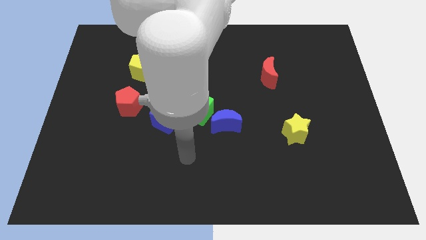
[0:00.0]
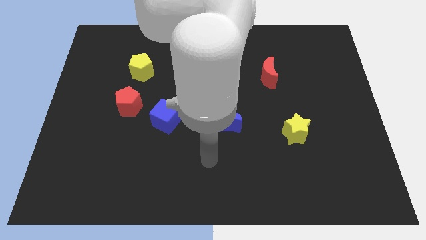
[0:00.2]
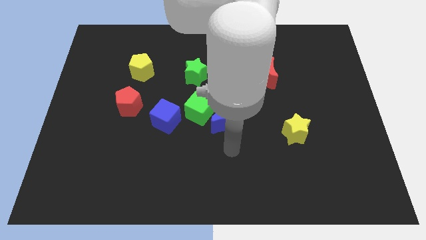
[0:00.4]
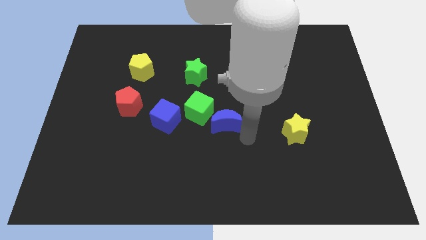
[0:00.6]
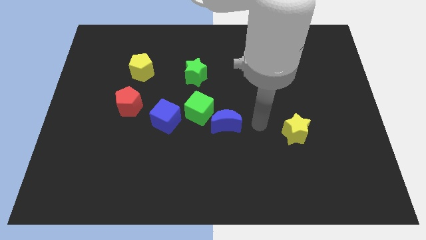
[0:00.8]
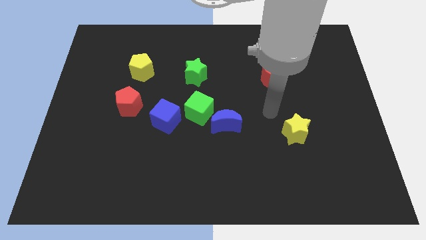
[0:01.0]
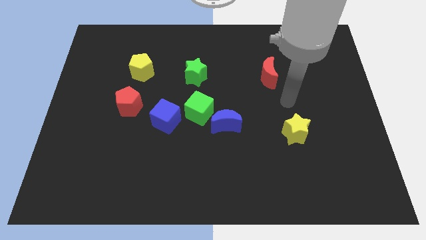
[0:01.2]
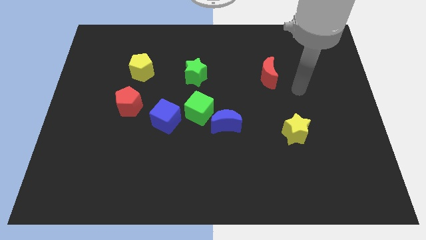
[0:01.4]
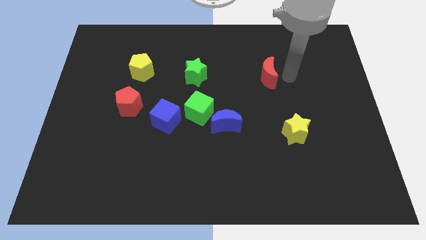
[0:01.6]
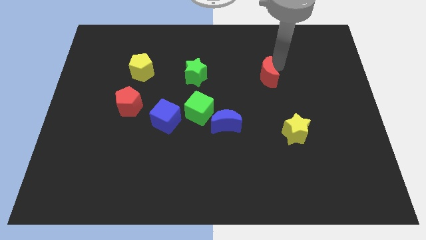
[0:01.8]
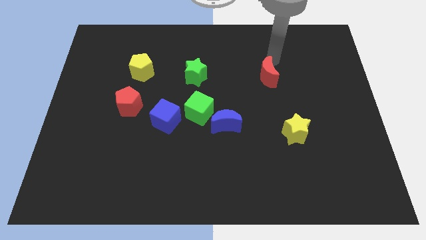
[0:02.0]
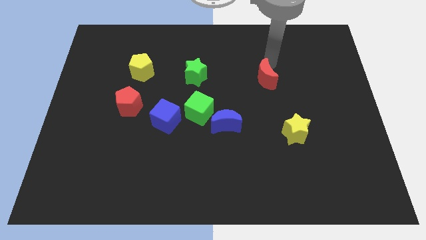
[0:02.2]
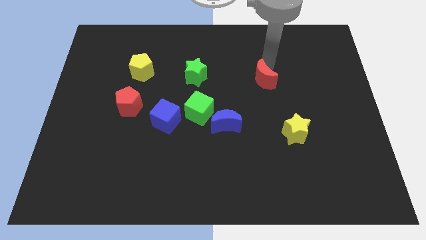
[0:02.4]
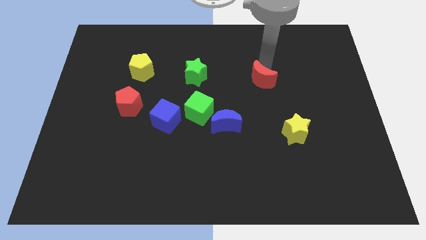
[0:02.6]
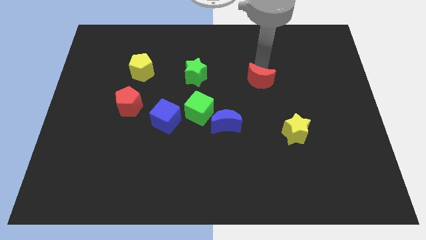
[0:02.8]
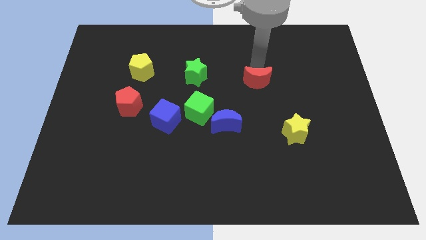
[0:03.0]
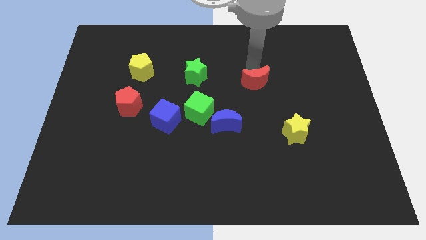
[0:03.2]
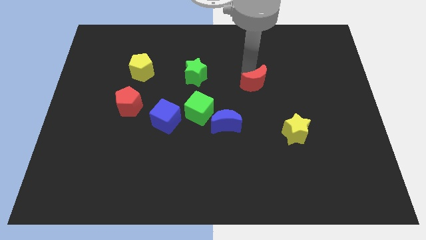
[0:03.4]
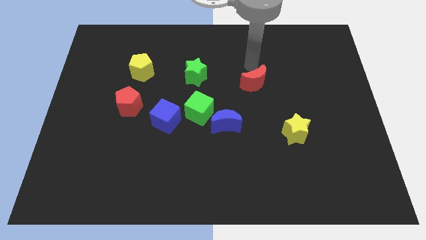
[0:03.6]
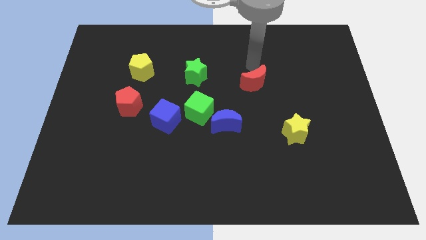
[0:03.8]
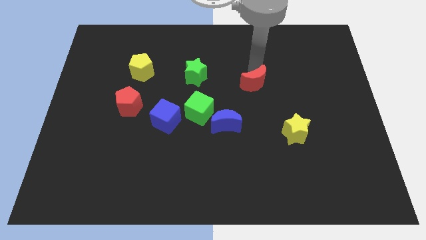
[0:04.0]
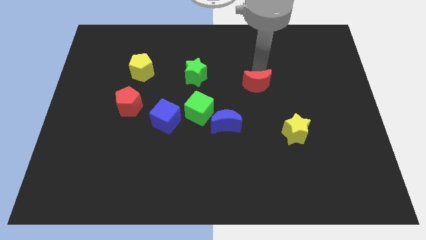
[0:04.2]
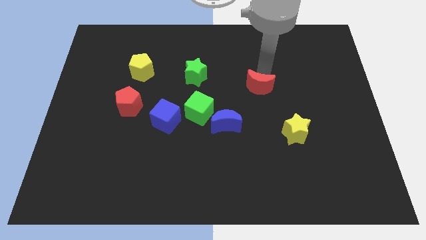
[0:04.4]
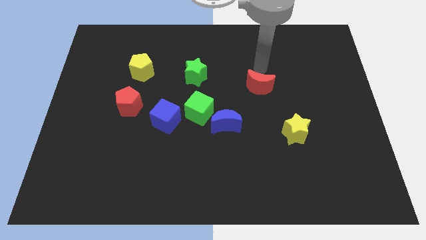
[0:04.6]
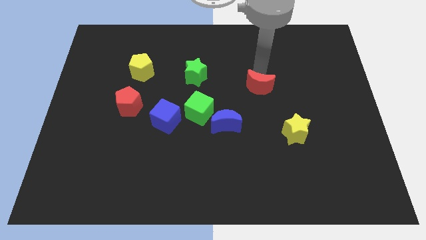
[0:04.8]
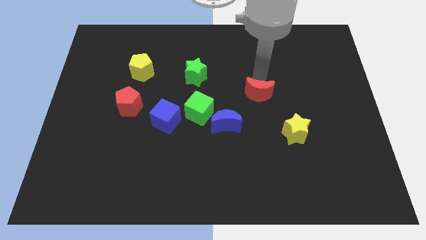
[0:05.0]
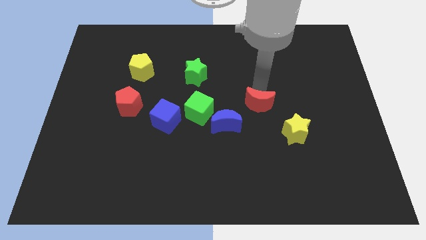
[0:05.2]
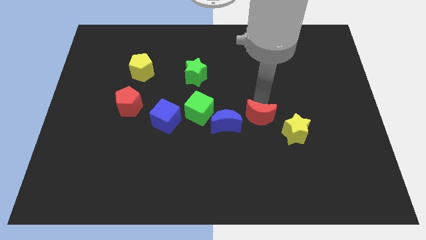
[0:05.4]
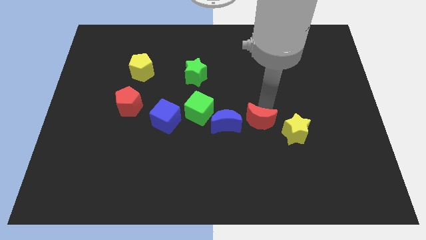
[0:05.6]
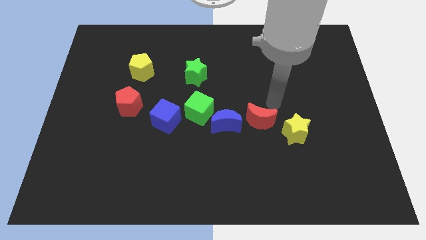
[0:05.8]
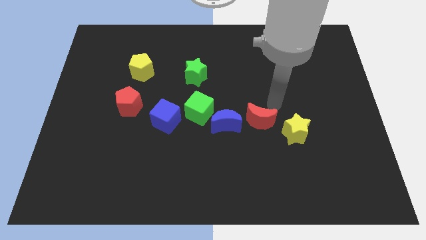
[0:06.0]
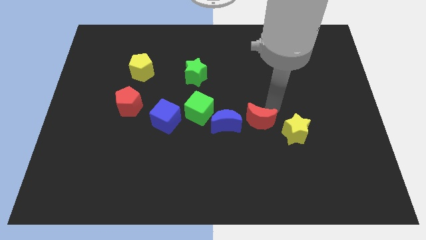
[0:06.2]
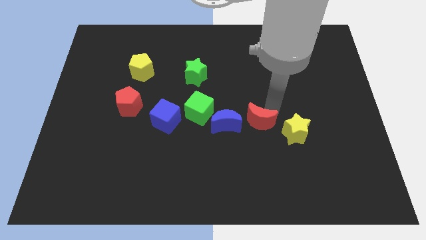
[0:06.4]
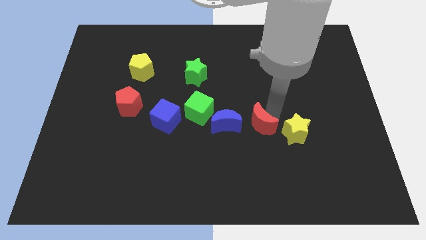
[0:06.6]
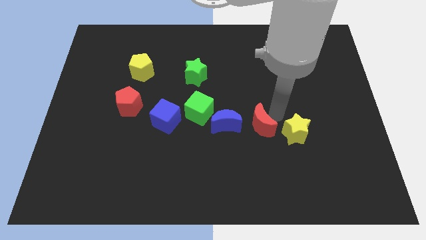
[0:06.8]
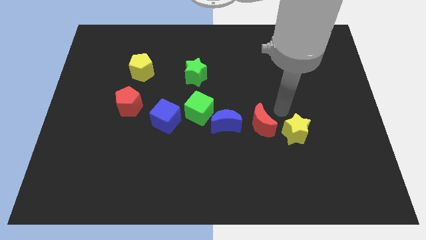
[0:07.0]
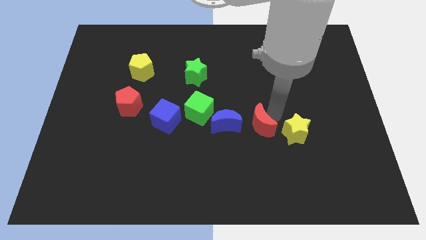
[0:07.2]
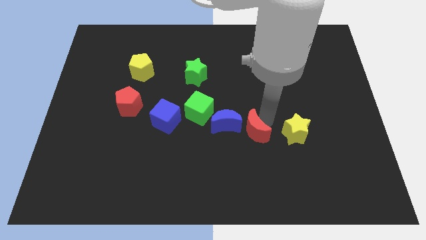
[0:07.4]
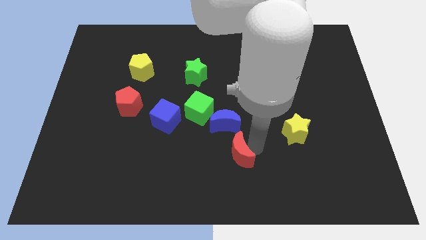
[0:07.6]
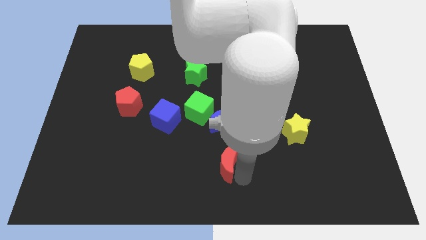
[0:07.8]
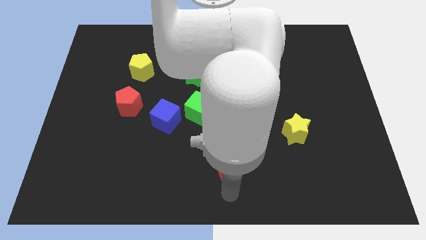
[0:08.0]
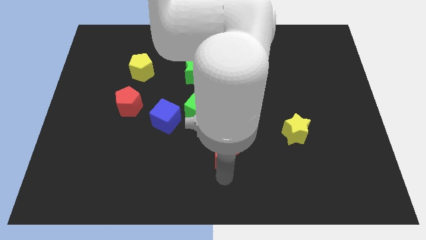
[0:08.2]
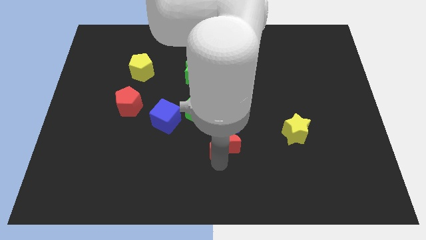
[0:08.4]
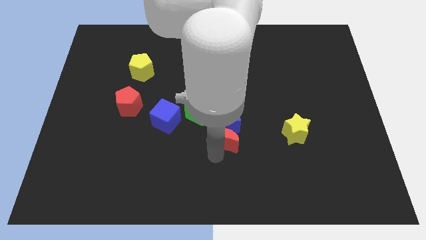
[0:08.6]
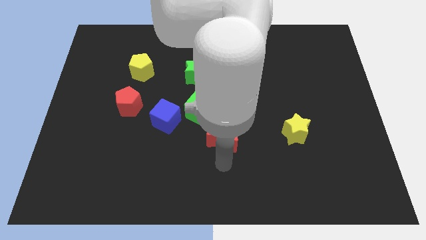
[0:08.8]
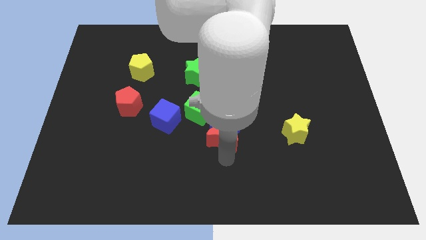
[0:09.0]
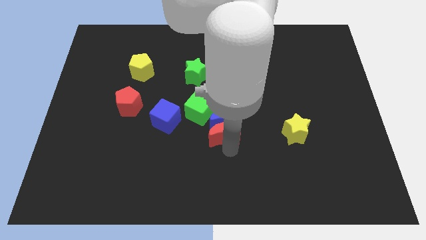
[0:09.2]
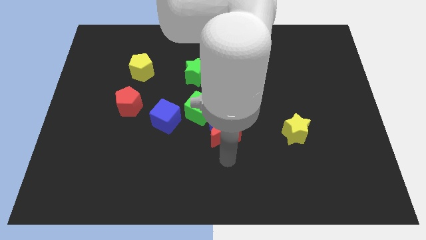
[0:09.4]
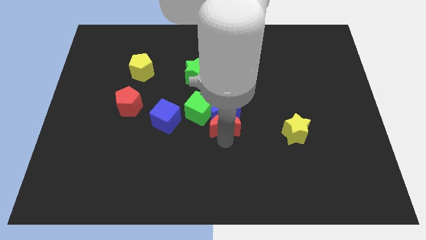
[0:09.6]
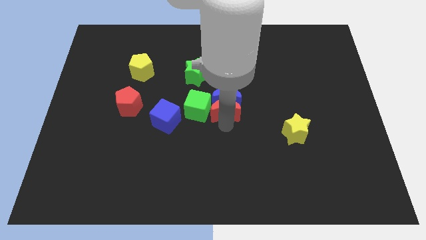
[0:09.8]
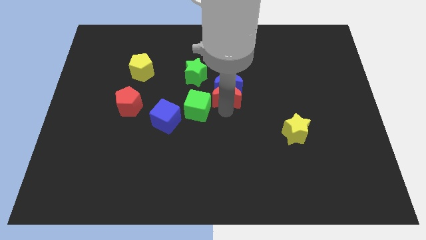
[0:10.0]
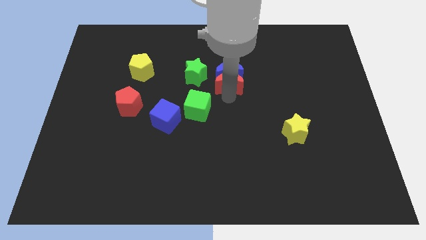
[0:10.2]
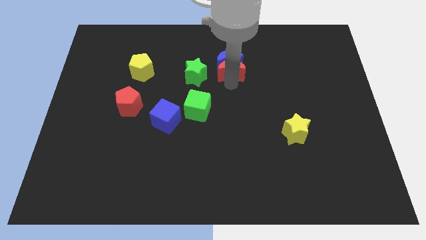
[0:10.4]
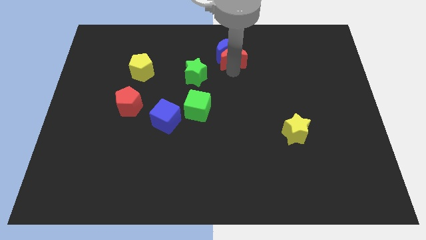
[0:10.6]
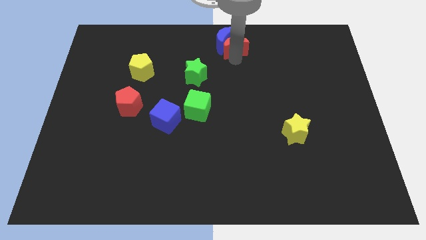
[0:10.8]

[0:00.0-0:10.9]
slide the red moon to the towards your base
